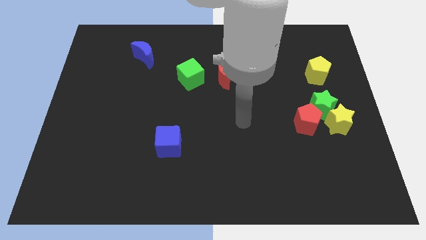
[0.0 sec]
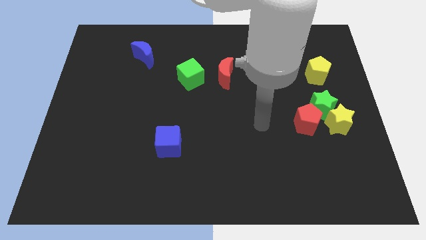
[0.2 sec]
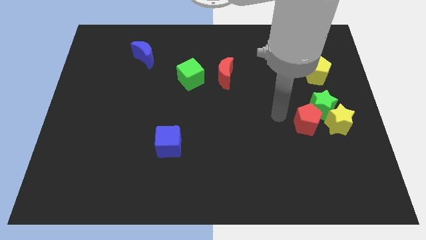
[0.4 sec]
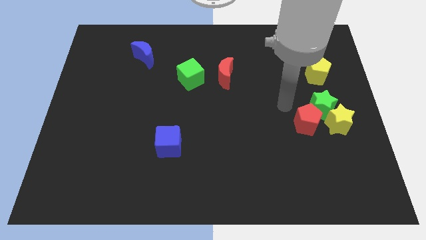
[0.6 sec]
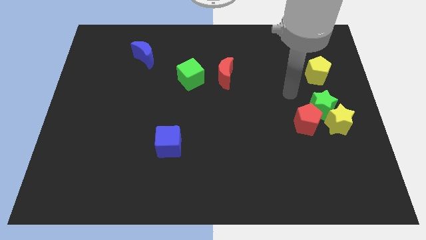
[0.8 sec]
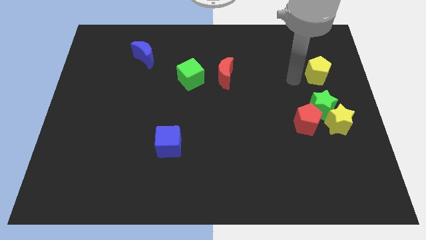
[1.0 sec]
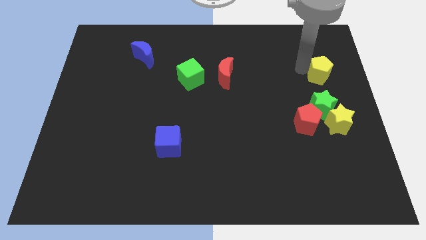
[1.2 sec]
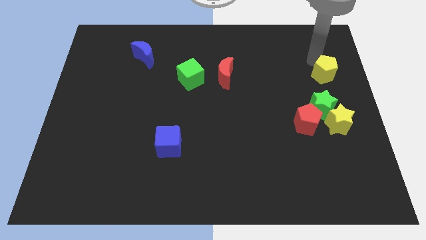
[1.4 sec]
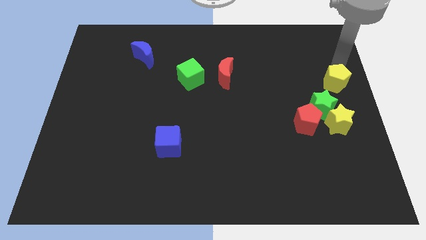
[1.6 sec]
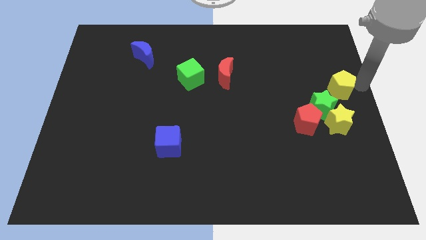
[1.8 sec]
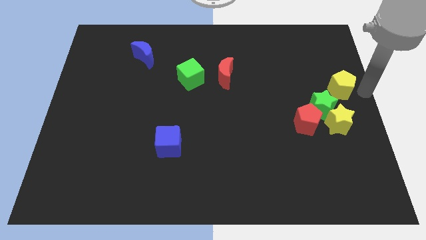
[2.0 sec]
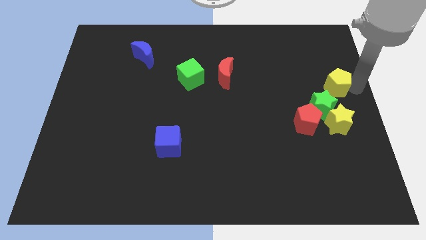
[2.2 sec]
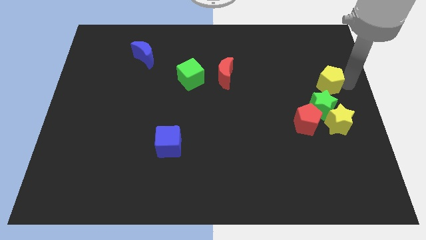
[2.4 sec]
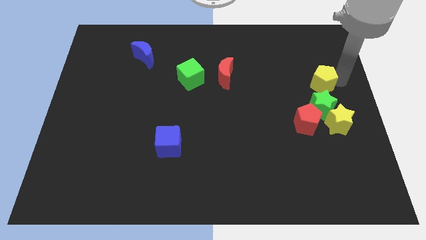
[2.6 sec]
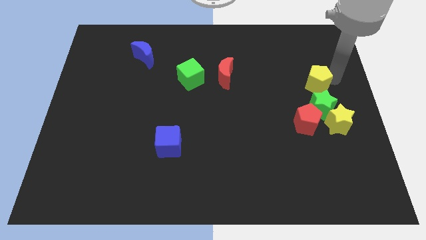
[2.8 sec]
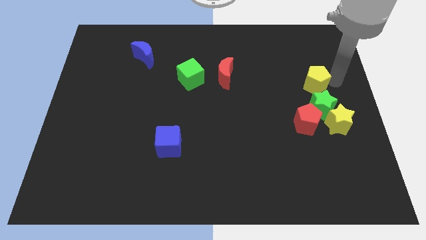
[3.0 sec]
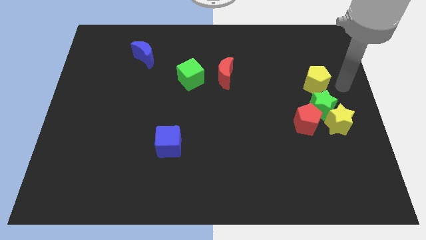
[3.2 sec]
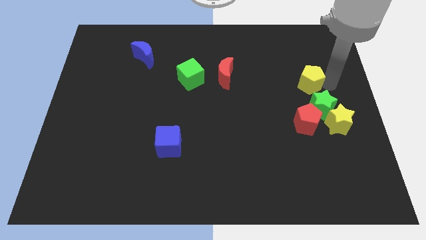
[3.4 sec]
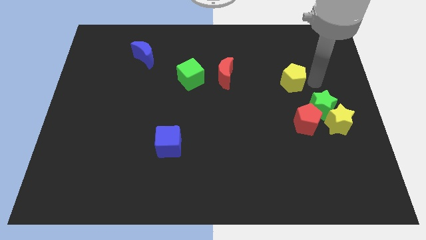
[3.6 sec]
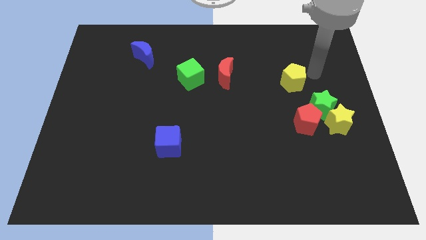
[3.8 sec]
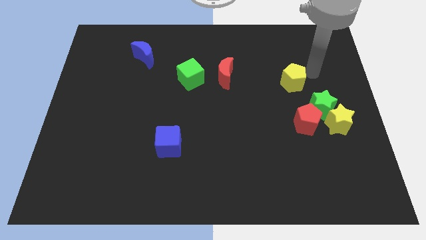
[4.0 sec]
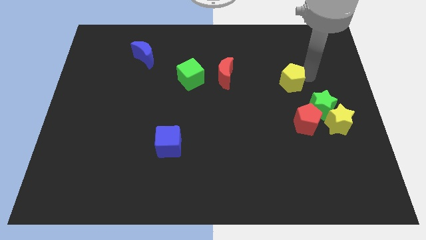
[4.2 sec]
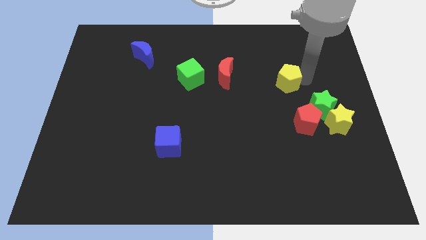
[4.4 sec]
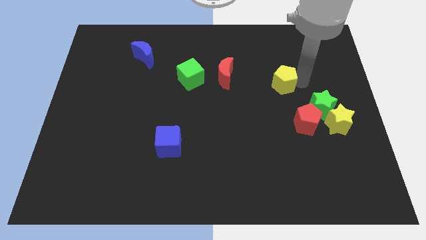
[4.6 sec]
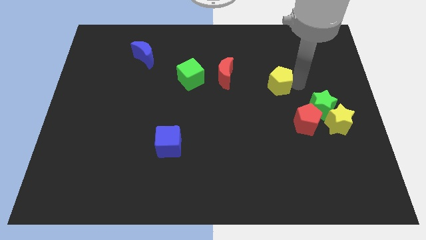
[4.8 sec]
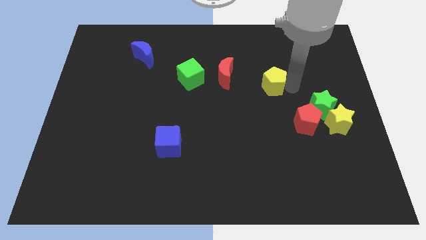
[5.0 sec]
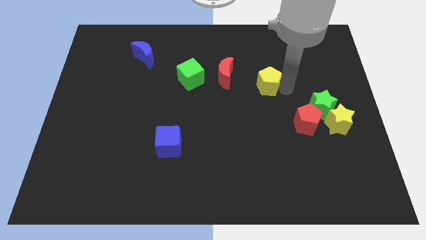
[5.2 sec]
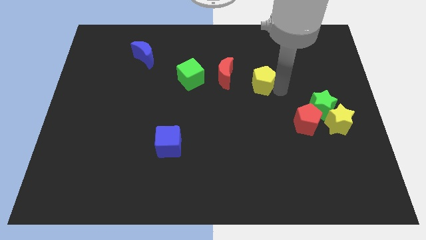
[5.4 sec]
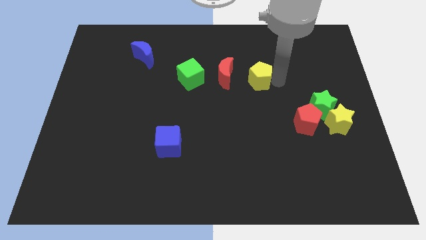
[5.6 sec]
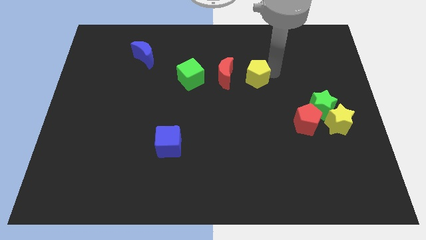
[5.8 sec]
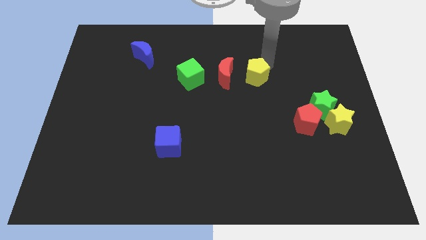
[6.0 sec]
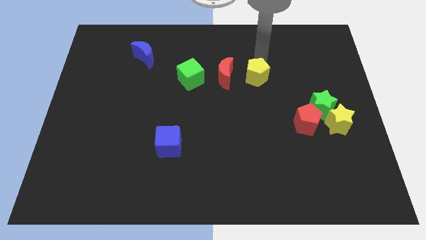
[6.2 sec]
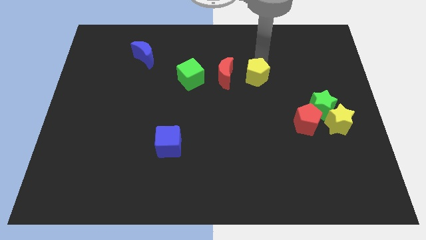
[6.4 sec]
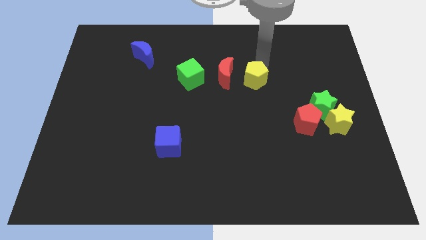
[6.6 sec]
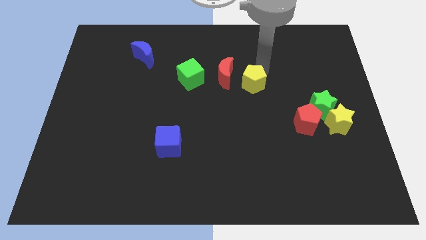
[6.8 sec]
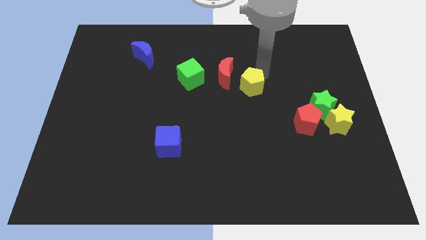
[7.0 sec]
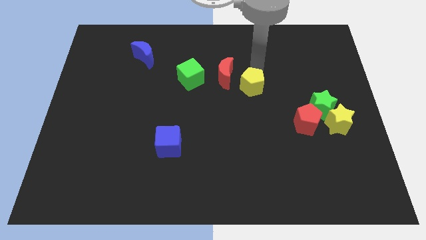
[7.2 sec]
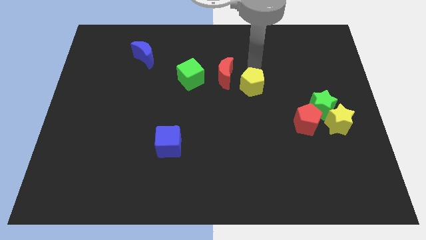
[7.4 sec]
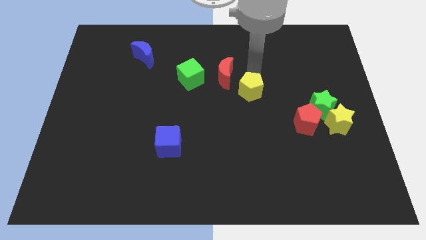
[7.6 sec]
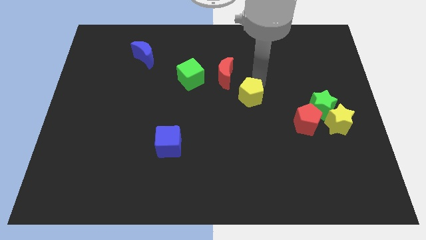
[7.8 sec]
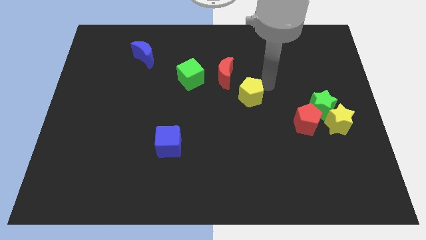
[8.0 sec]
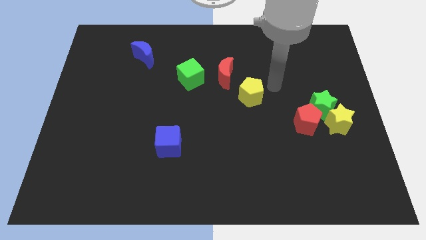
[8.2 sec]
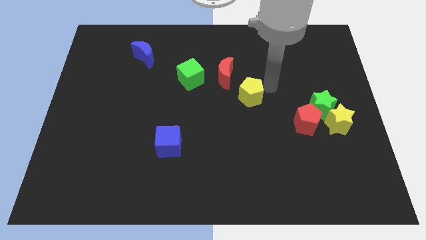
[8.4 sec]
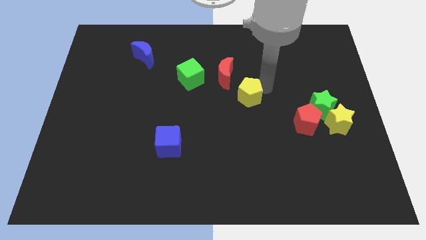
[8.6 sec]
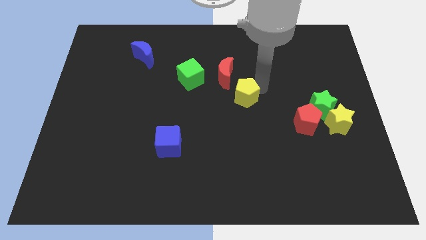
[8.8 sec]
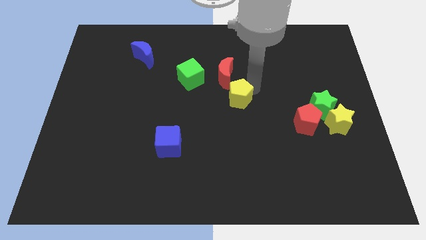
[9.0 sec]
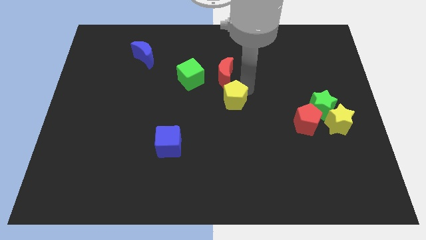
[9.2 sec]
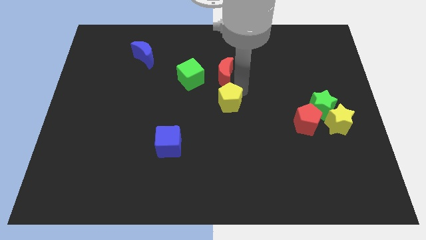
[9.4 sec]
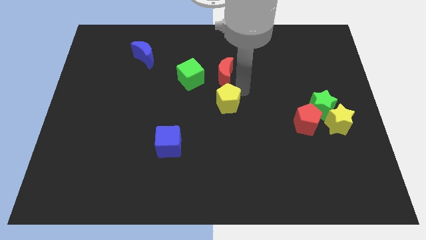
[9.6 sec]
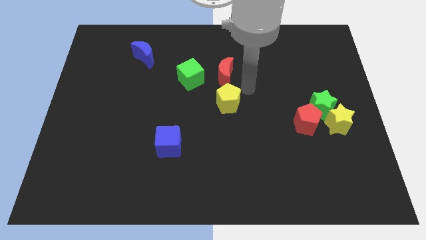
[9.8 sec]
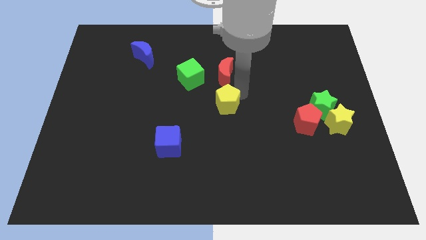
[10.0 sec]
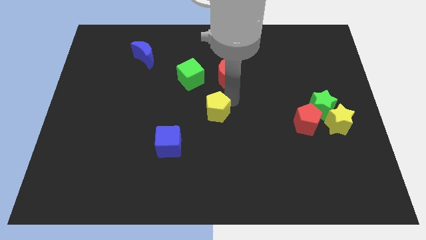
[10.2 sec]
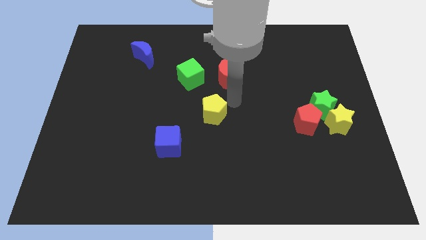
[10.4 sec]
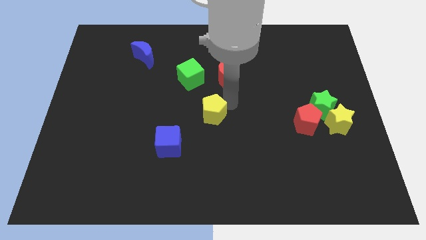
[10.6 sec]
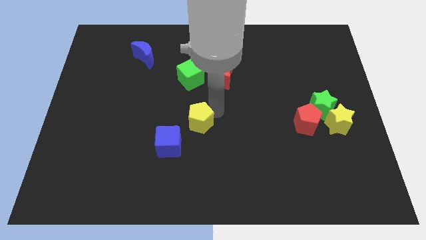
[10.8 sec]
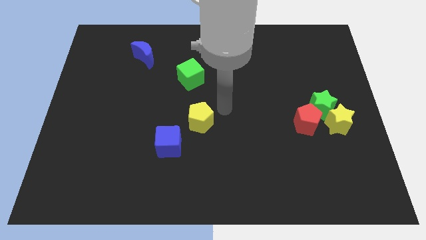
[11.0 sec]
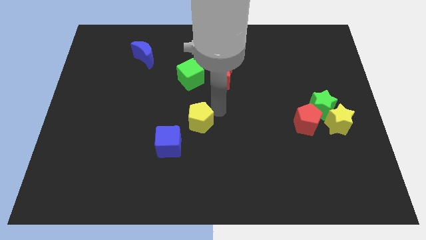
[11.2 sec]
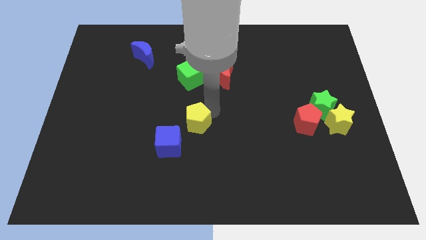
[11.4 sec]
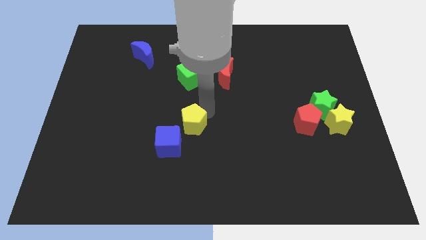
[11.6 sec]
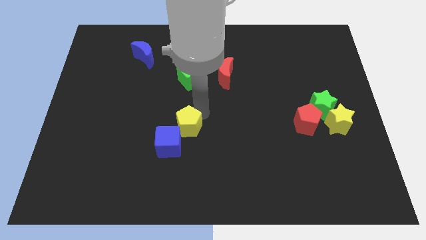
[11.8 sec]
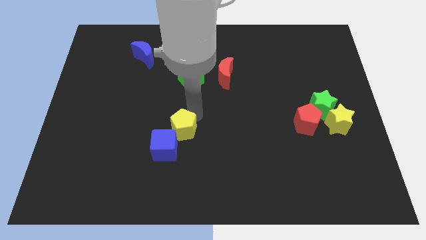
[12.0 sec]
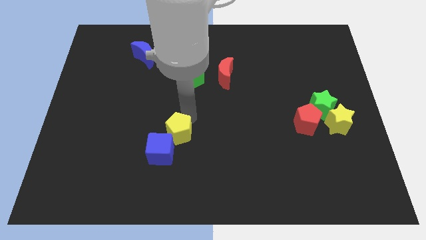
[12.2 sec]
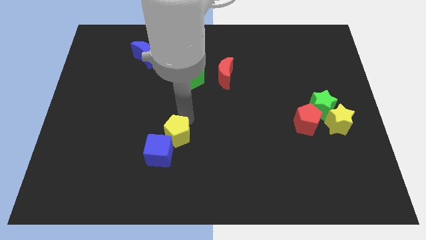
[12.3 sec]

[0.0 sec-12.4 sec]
put the yellow pentagon close to the blue cube

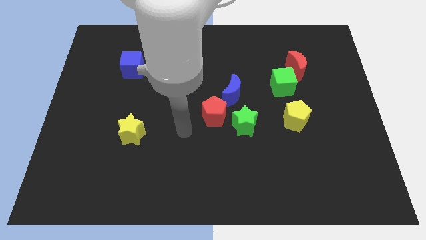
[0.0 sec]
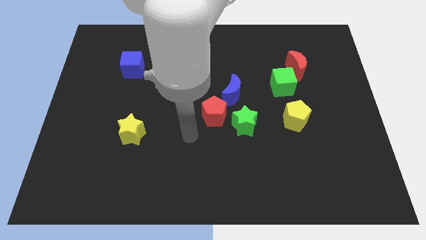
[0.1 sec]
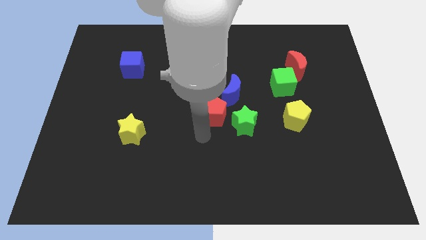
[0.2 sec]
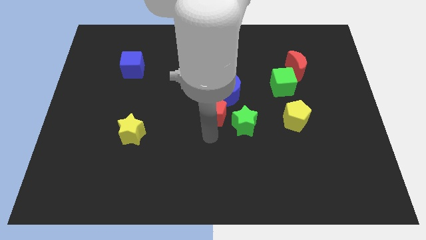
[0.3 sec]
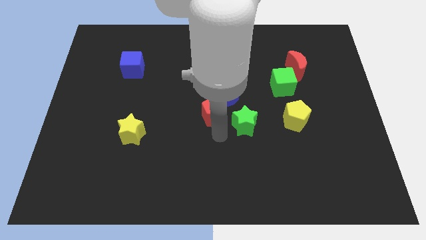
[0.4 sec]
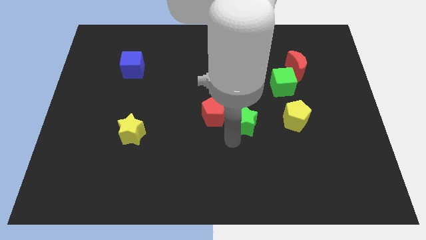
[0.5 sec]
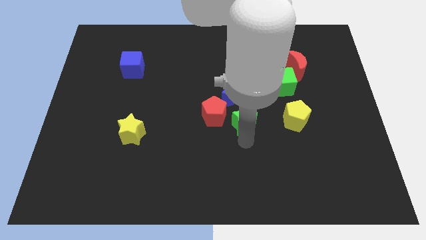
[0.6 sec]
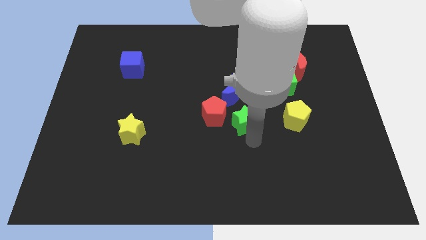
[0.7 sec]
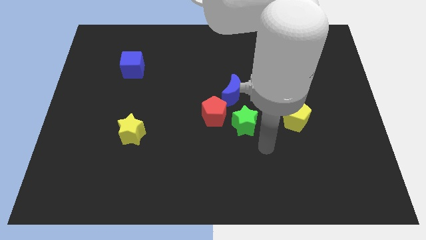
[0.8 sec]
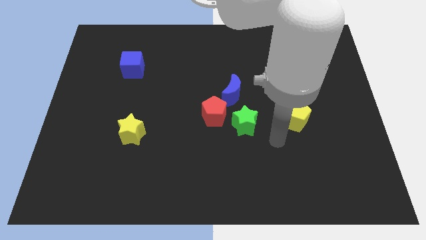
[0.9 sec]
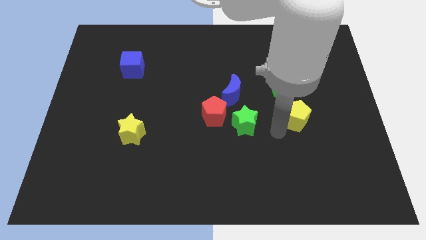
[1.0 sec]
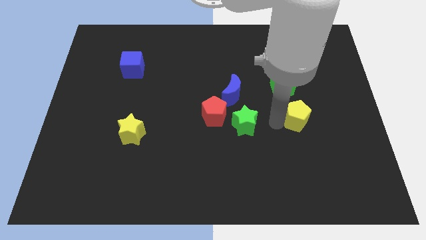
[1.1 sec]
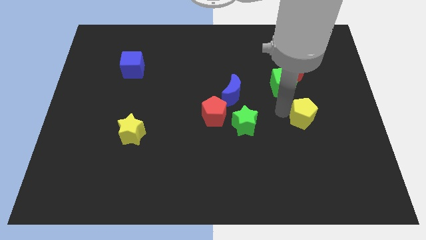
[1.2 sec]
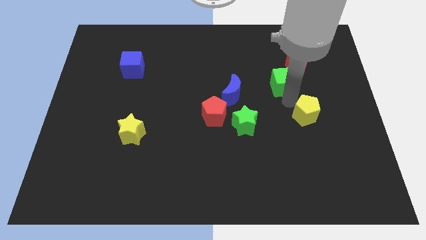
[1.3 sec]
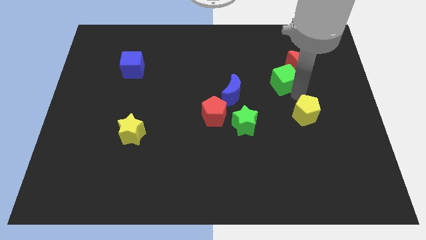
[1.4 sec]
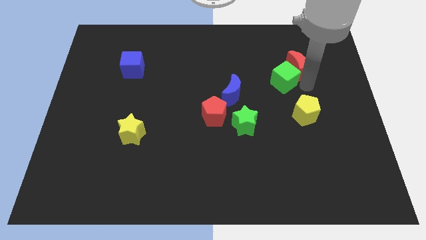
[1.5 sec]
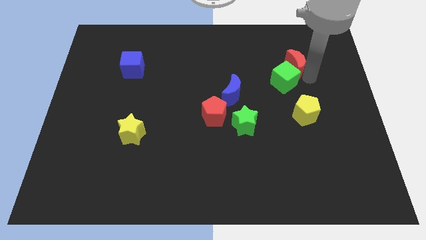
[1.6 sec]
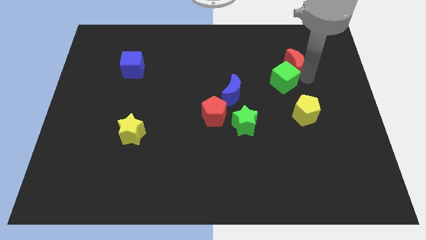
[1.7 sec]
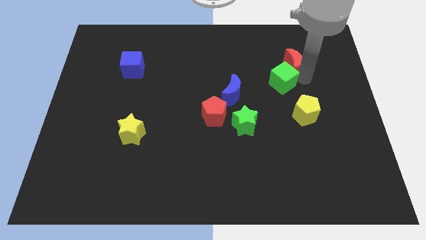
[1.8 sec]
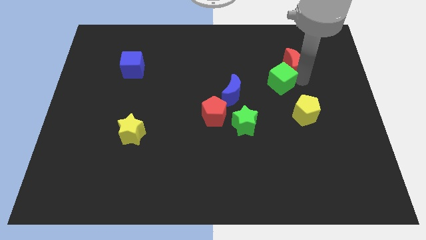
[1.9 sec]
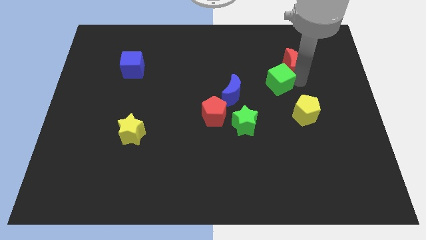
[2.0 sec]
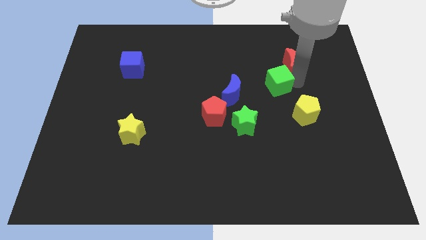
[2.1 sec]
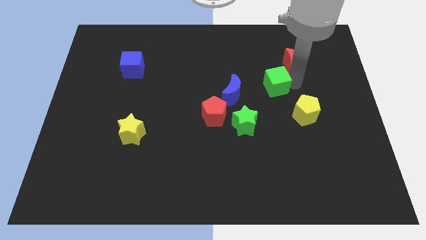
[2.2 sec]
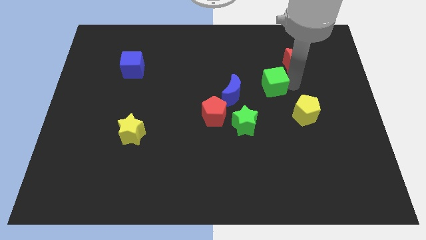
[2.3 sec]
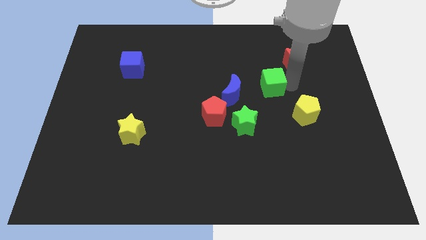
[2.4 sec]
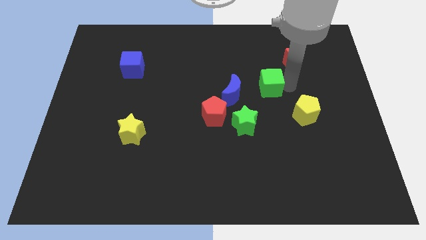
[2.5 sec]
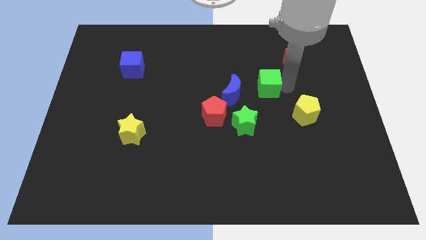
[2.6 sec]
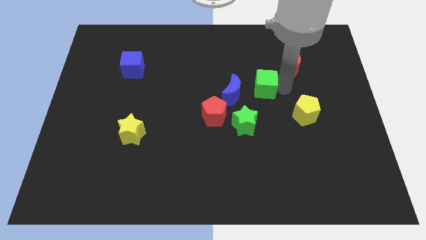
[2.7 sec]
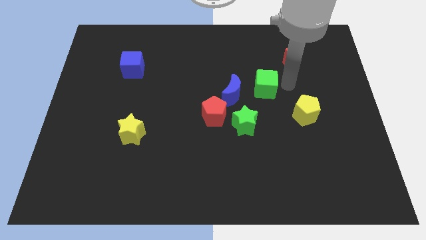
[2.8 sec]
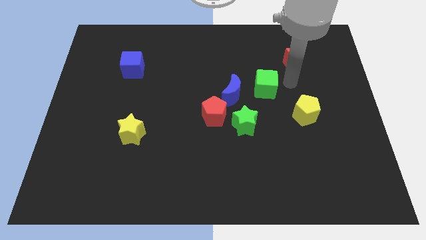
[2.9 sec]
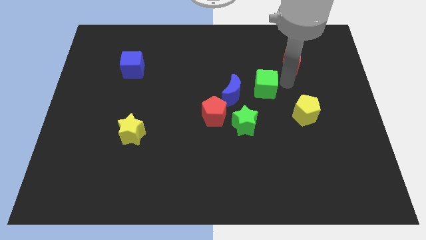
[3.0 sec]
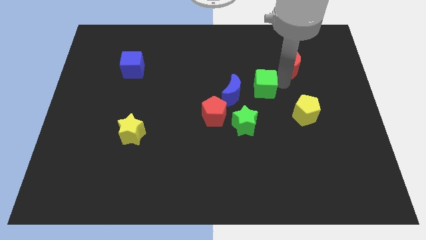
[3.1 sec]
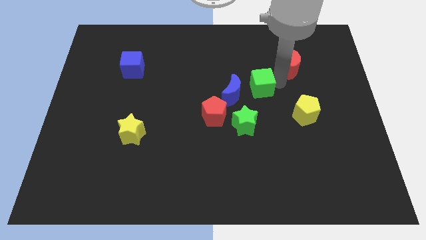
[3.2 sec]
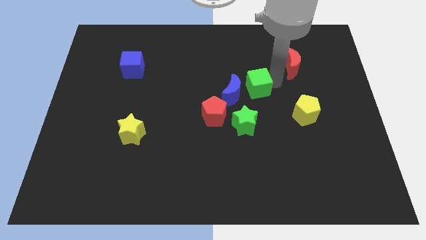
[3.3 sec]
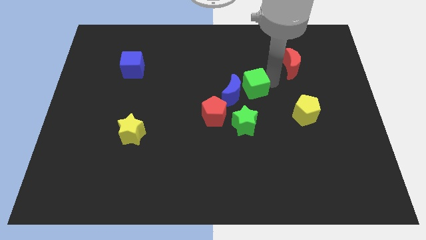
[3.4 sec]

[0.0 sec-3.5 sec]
move the green cube towards the blue moon
